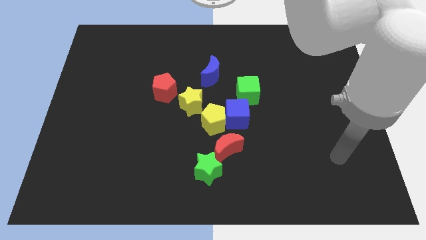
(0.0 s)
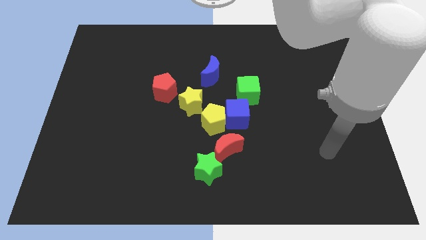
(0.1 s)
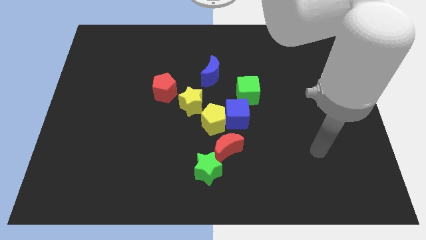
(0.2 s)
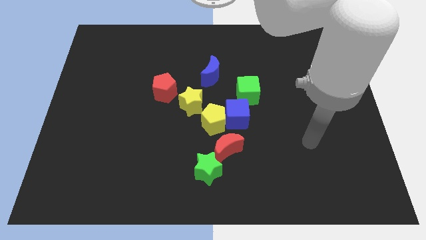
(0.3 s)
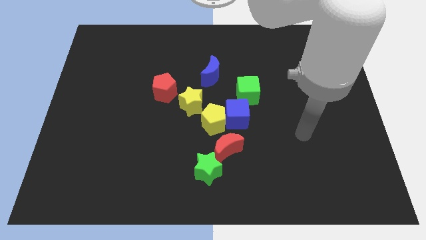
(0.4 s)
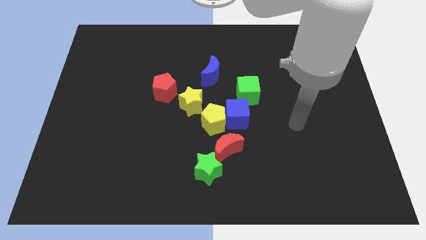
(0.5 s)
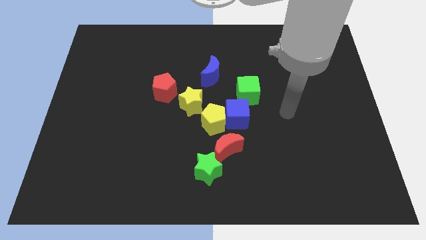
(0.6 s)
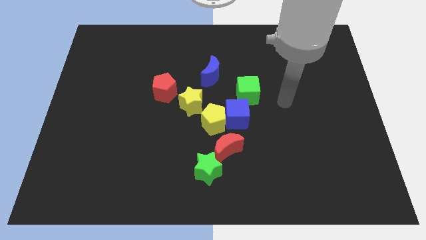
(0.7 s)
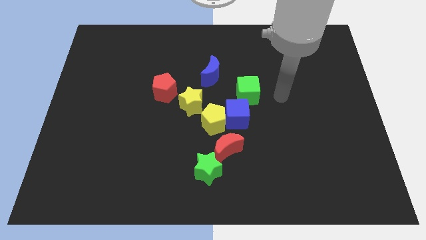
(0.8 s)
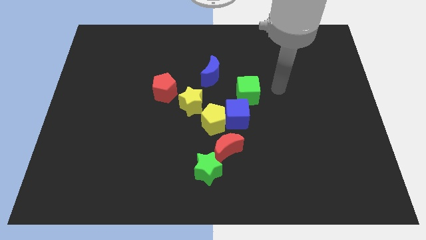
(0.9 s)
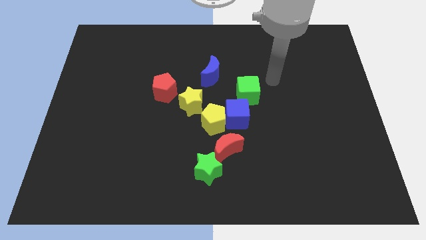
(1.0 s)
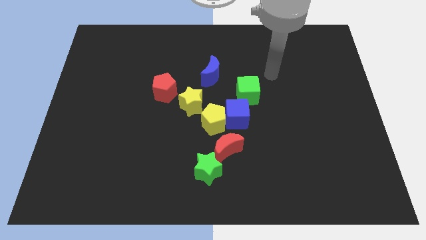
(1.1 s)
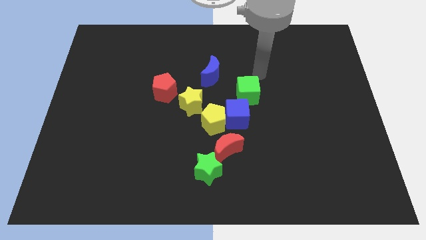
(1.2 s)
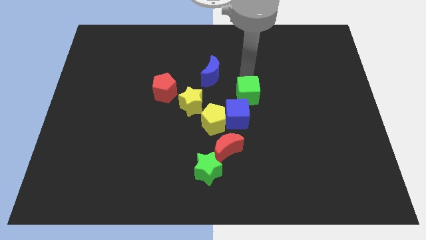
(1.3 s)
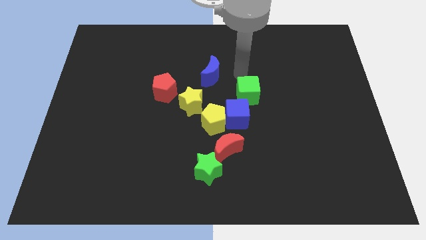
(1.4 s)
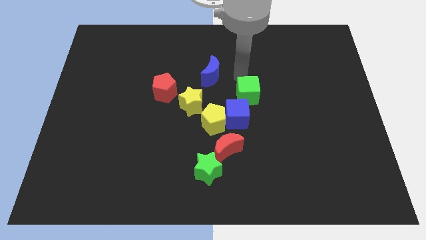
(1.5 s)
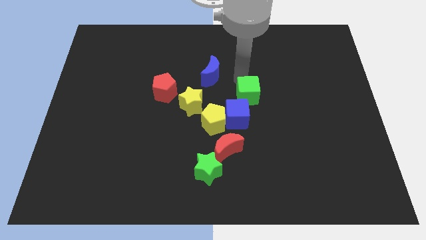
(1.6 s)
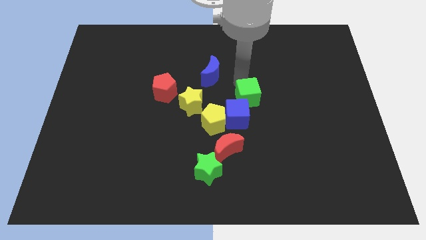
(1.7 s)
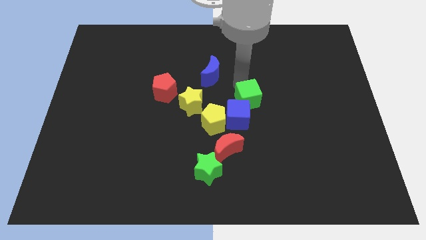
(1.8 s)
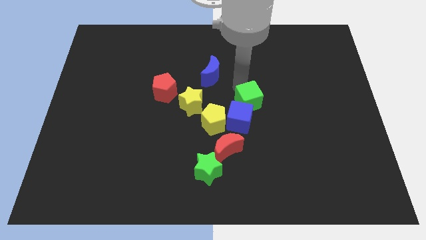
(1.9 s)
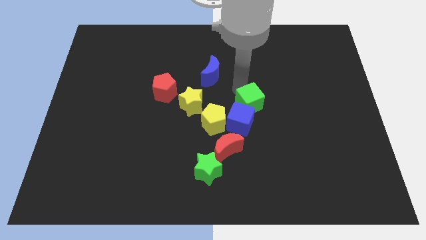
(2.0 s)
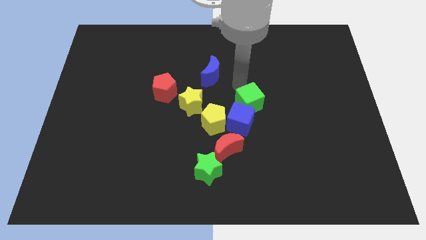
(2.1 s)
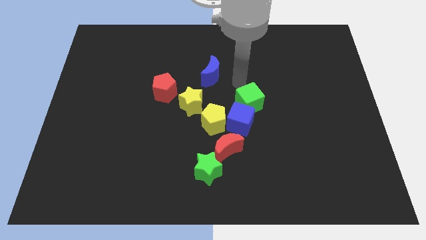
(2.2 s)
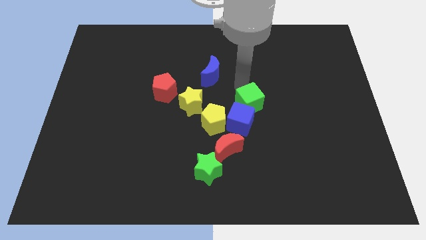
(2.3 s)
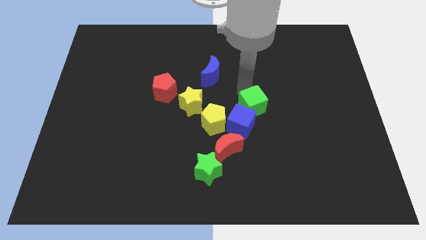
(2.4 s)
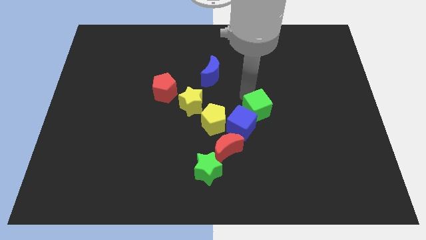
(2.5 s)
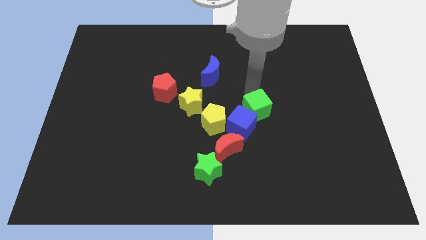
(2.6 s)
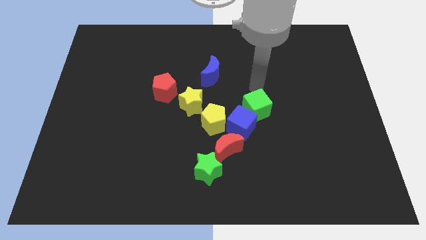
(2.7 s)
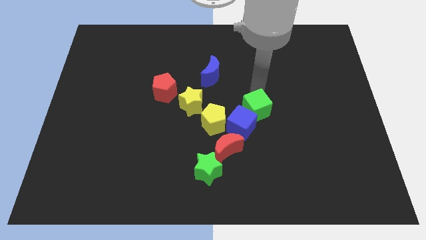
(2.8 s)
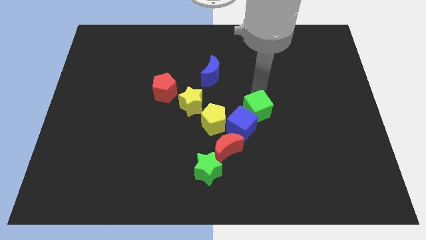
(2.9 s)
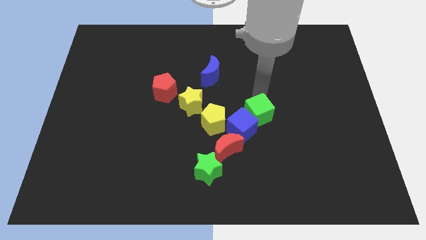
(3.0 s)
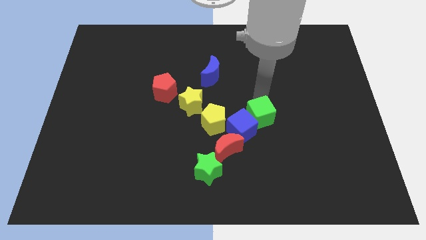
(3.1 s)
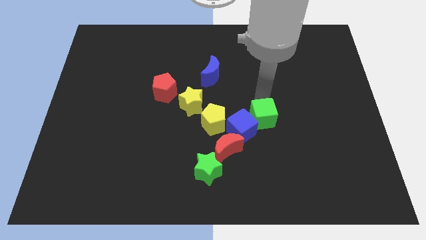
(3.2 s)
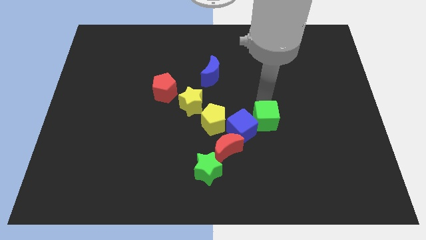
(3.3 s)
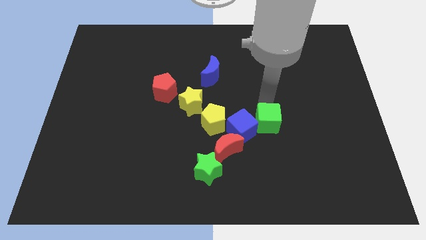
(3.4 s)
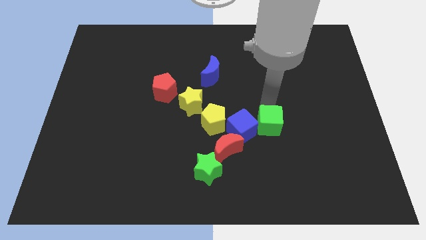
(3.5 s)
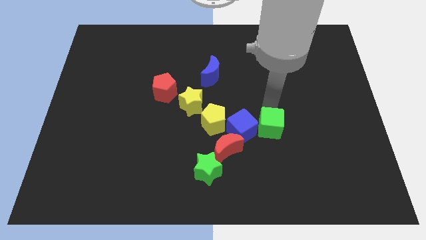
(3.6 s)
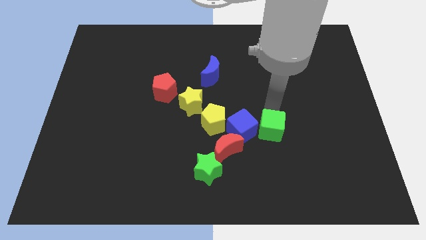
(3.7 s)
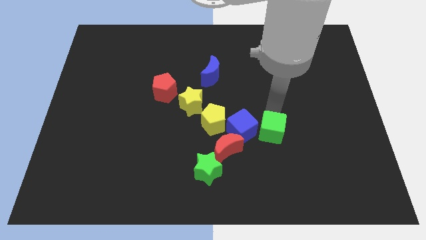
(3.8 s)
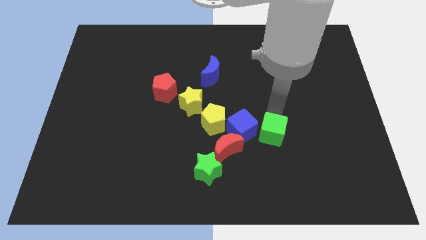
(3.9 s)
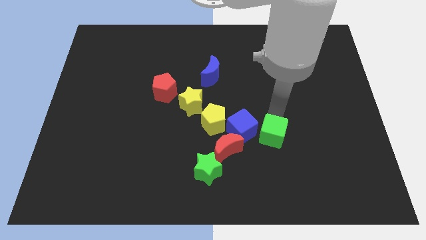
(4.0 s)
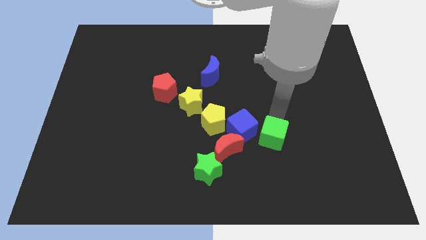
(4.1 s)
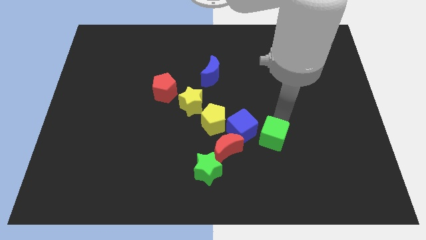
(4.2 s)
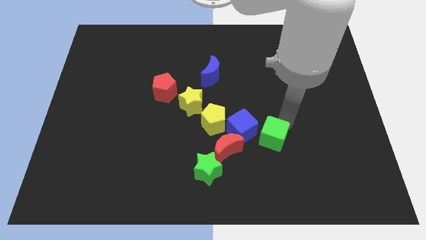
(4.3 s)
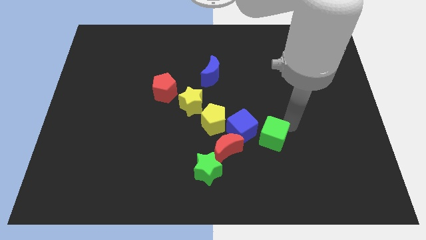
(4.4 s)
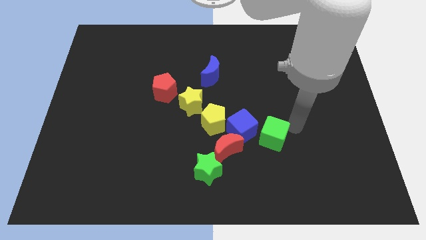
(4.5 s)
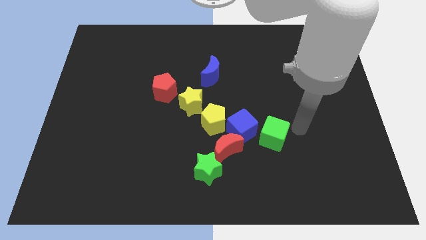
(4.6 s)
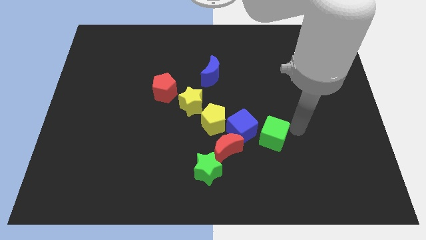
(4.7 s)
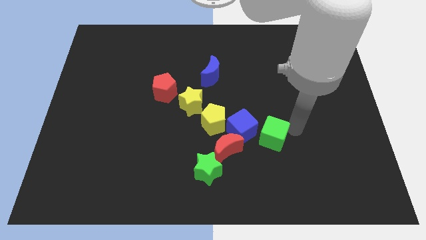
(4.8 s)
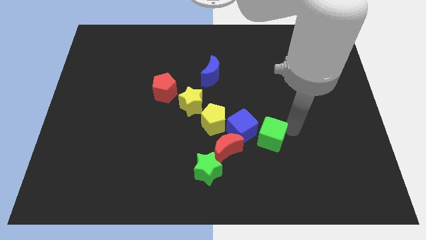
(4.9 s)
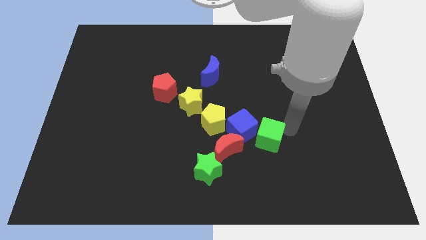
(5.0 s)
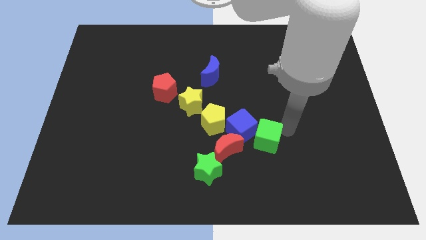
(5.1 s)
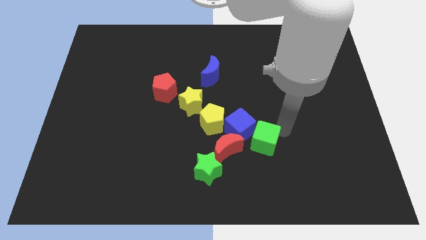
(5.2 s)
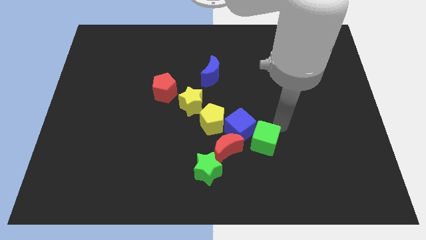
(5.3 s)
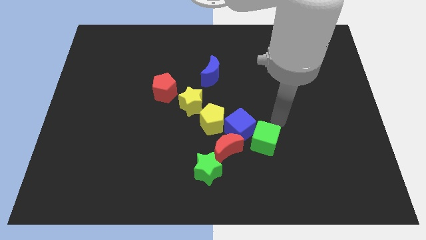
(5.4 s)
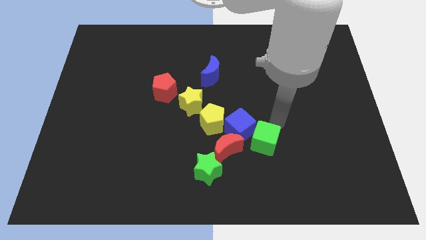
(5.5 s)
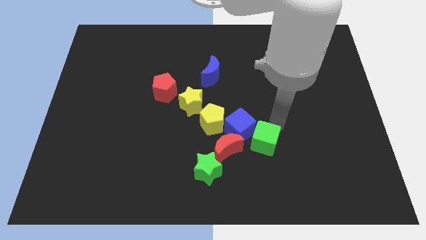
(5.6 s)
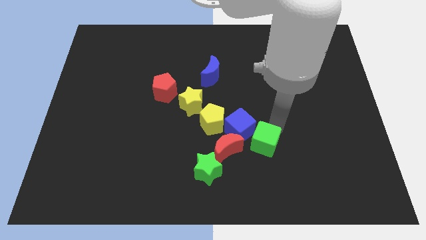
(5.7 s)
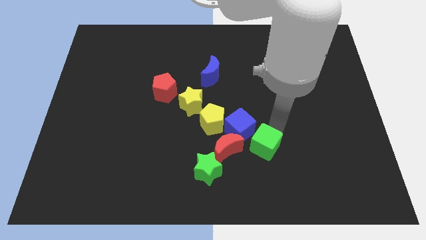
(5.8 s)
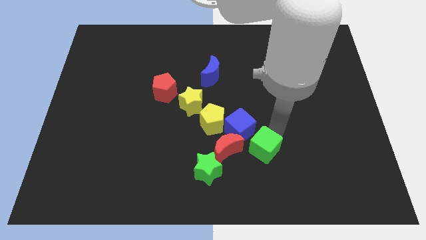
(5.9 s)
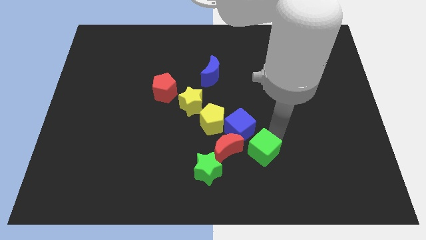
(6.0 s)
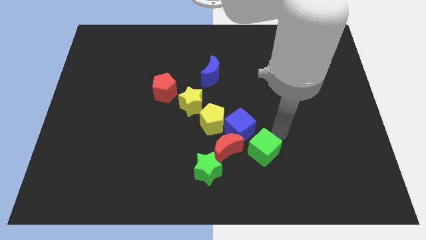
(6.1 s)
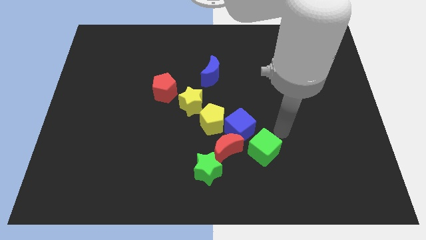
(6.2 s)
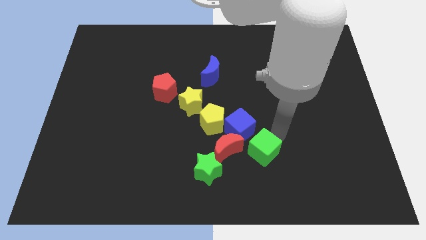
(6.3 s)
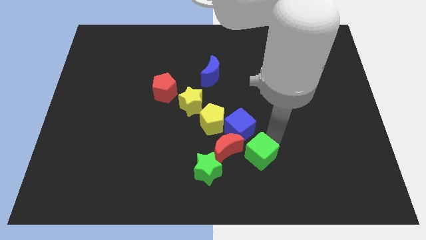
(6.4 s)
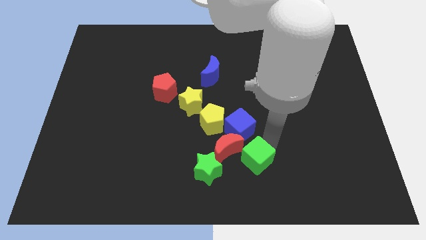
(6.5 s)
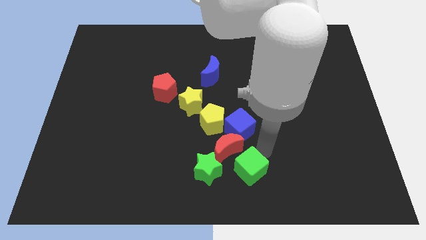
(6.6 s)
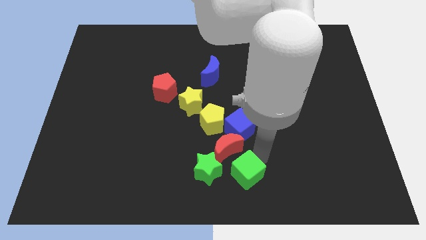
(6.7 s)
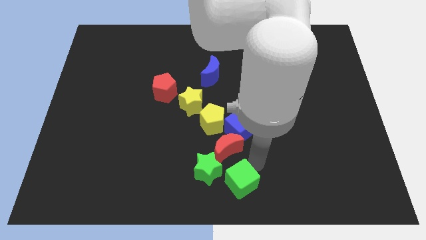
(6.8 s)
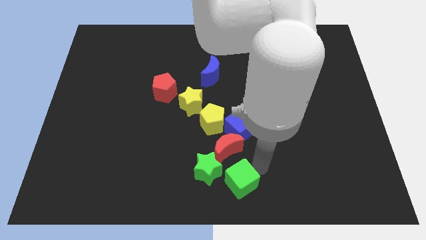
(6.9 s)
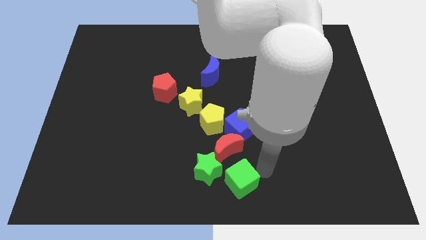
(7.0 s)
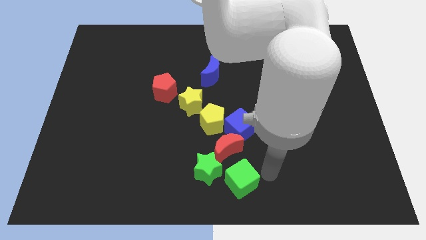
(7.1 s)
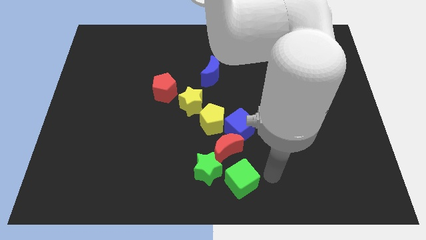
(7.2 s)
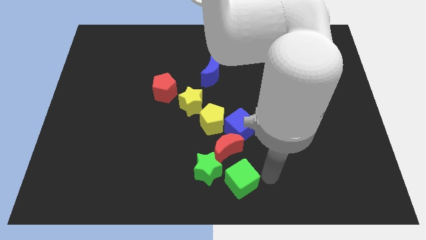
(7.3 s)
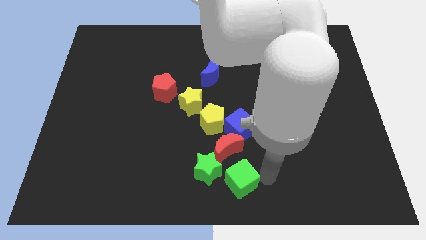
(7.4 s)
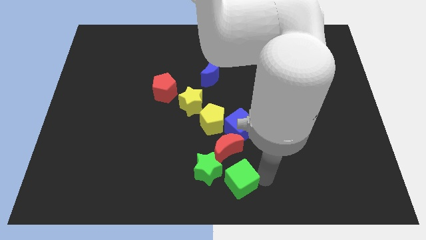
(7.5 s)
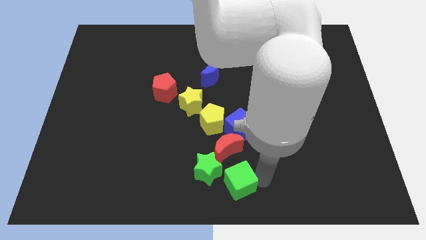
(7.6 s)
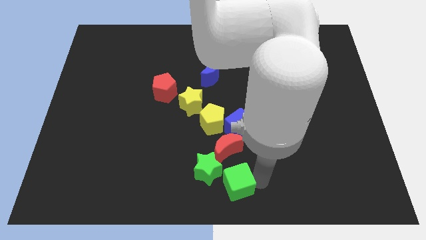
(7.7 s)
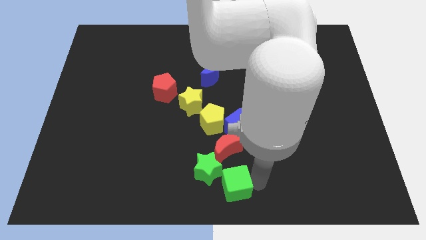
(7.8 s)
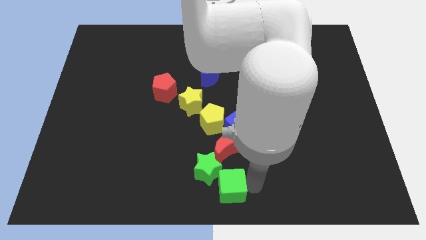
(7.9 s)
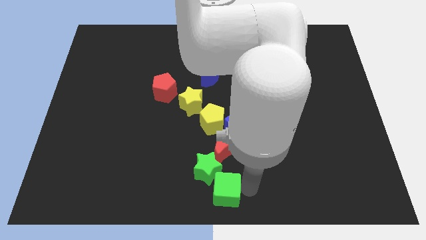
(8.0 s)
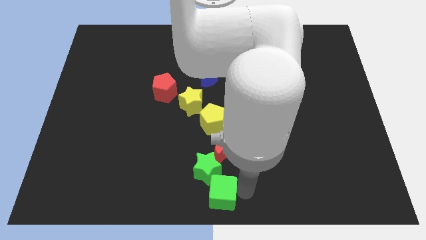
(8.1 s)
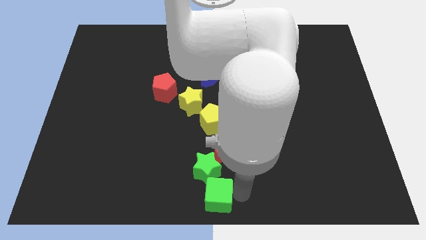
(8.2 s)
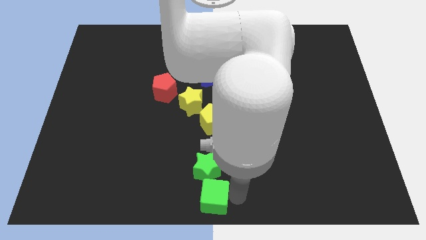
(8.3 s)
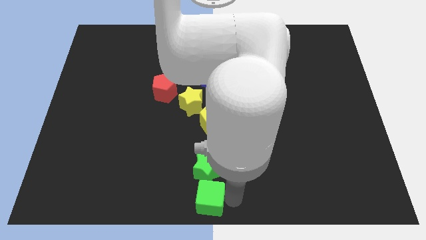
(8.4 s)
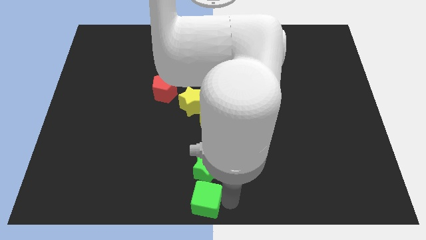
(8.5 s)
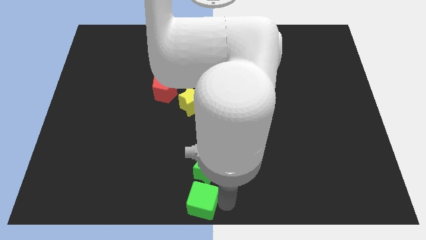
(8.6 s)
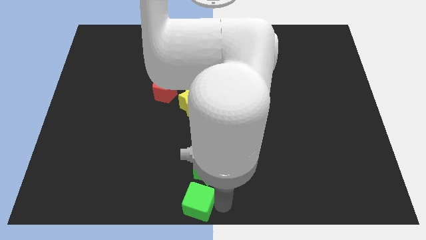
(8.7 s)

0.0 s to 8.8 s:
slide the green cube down and to the left
